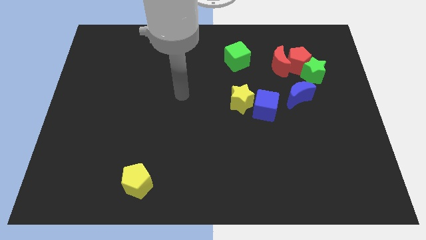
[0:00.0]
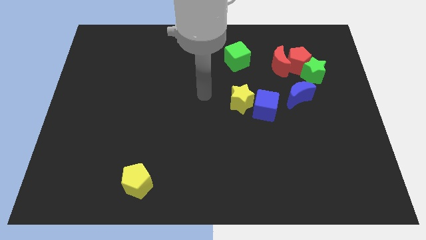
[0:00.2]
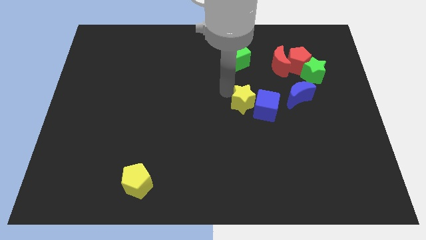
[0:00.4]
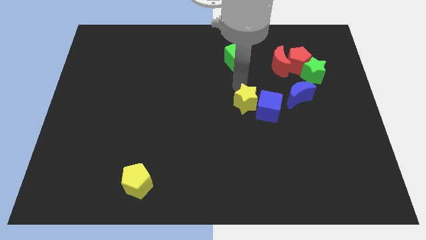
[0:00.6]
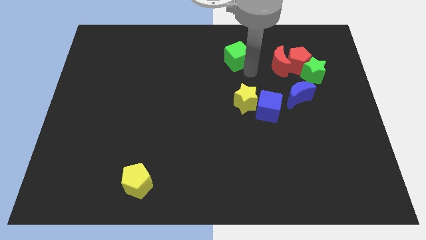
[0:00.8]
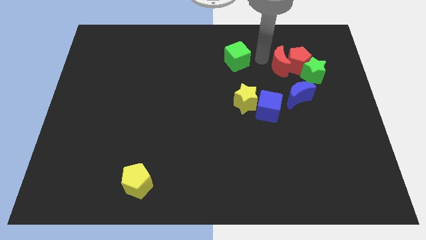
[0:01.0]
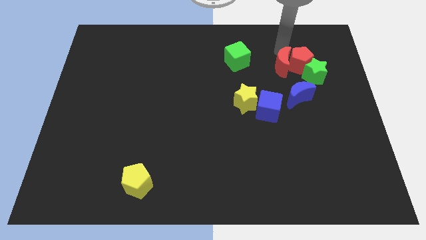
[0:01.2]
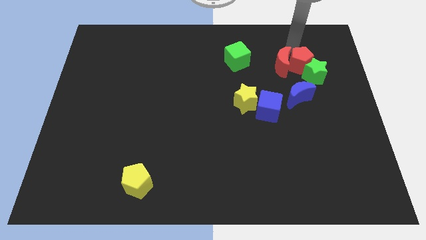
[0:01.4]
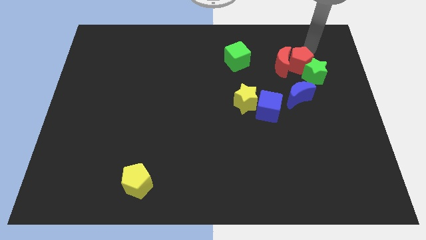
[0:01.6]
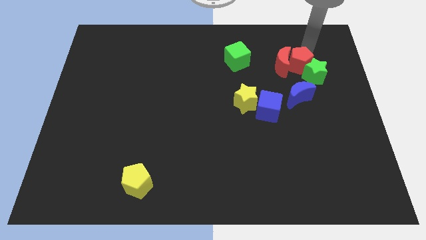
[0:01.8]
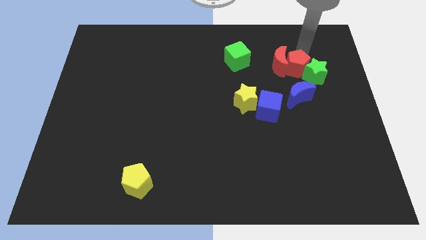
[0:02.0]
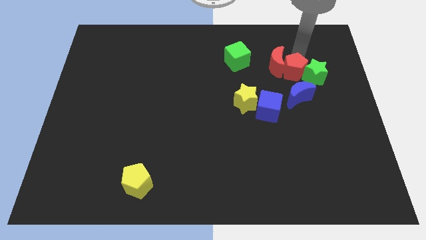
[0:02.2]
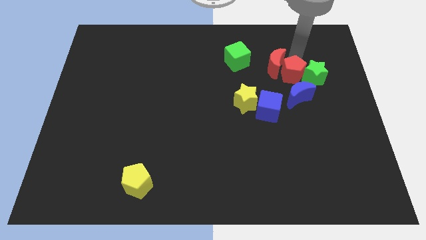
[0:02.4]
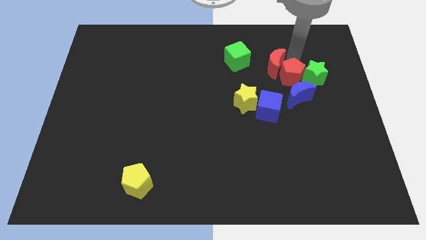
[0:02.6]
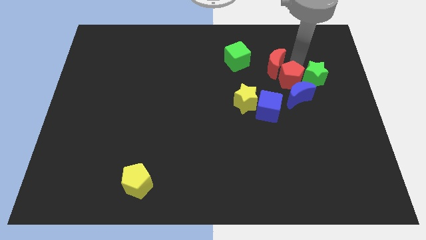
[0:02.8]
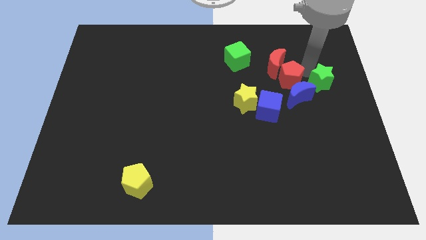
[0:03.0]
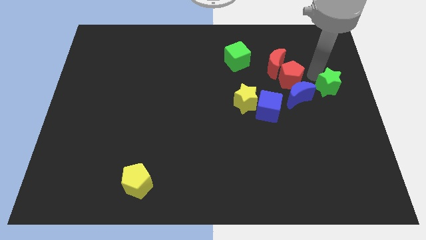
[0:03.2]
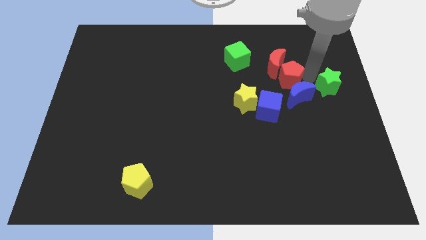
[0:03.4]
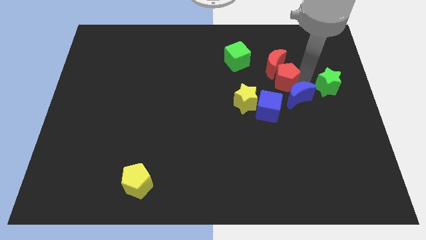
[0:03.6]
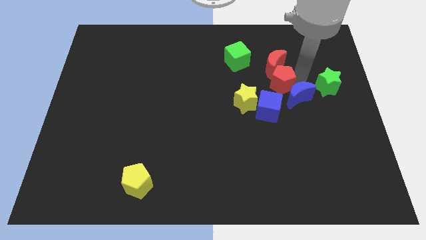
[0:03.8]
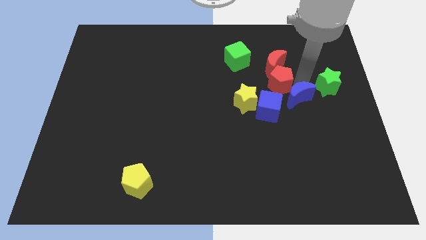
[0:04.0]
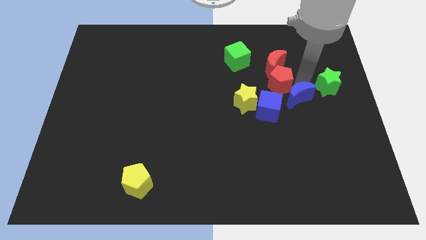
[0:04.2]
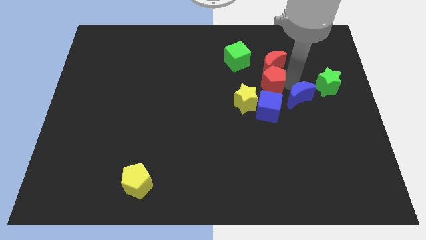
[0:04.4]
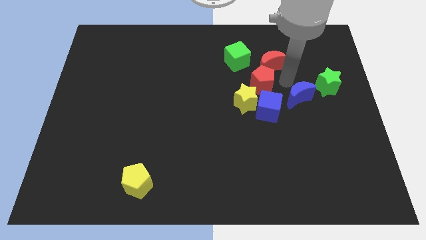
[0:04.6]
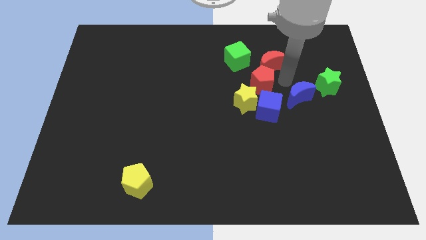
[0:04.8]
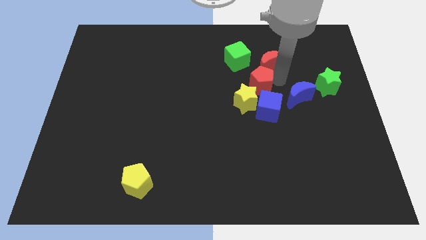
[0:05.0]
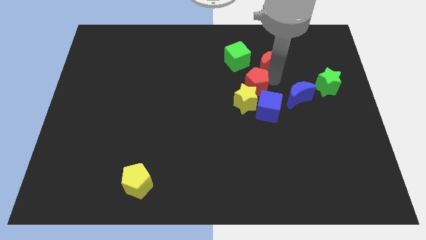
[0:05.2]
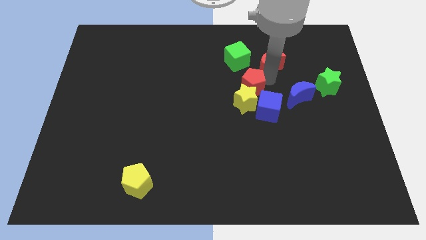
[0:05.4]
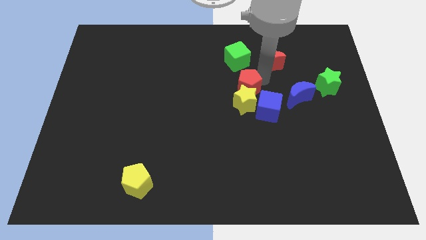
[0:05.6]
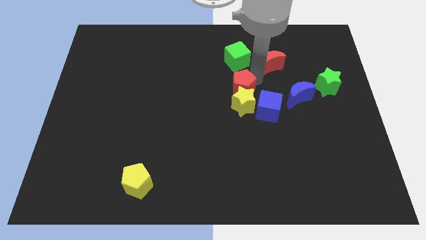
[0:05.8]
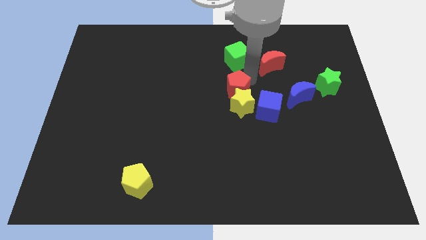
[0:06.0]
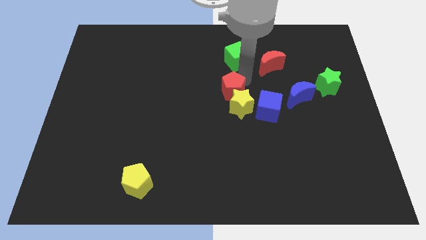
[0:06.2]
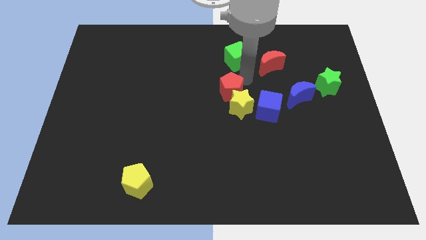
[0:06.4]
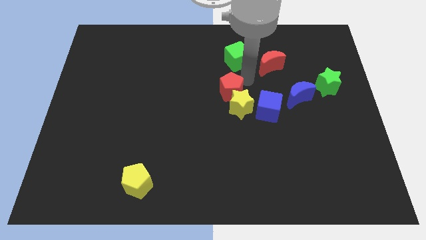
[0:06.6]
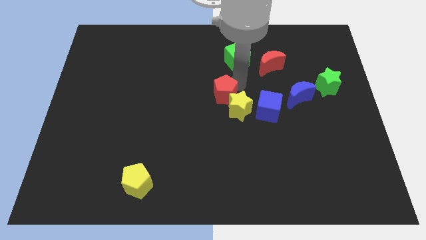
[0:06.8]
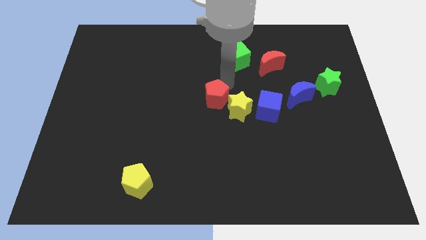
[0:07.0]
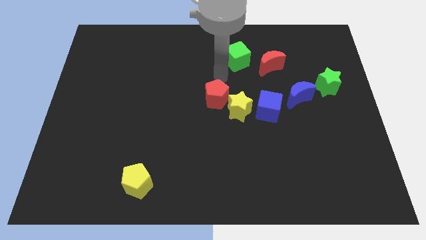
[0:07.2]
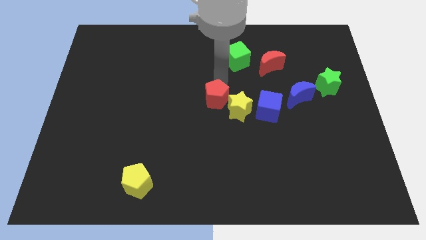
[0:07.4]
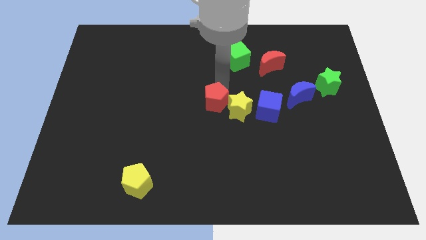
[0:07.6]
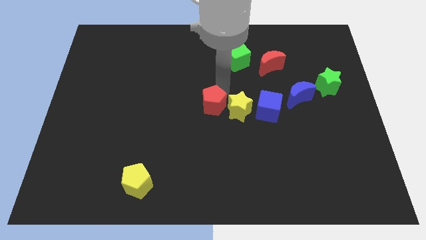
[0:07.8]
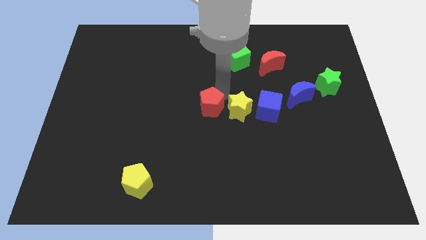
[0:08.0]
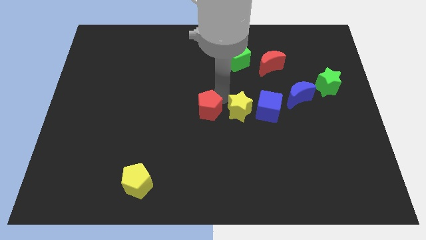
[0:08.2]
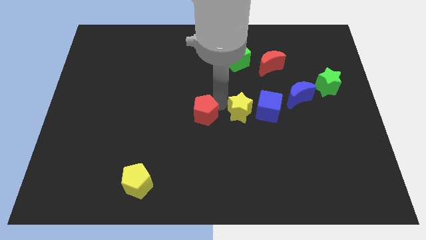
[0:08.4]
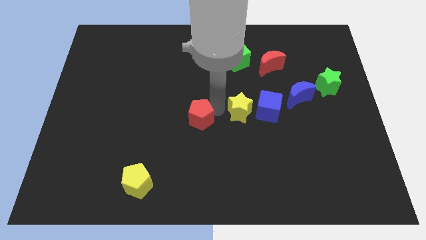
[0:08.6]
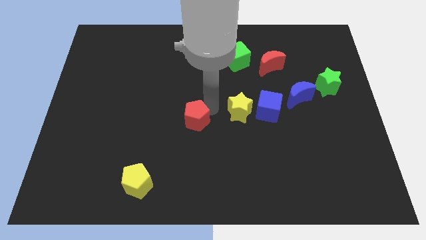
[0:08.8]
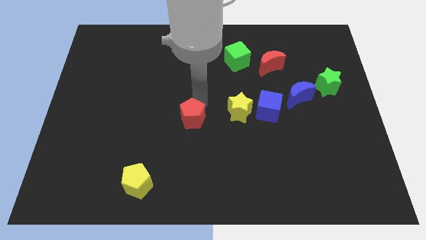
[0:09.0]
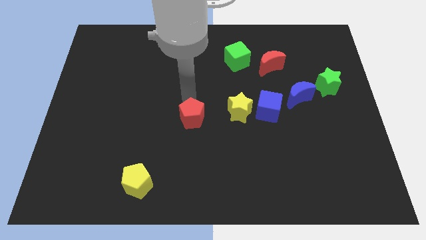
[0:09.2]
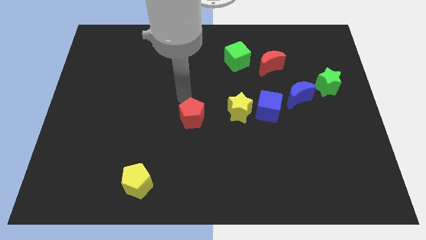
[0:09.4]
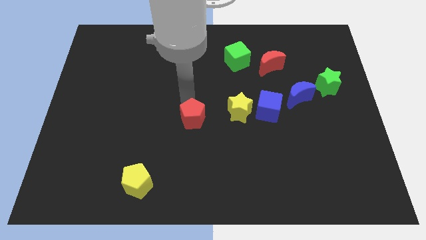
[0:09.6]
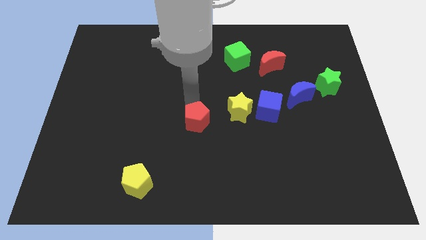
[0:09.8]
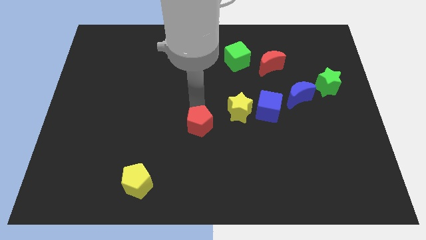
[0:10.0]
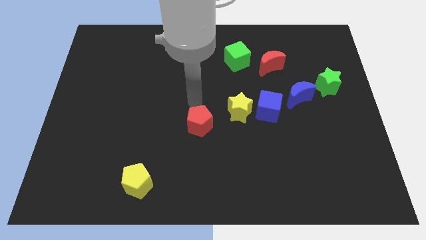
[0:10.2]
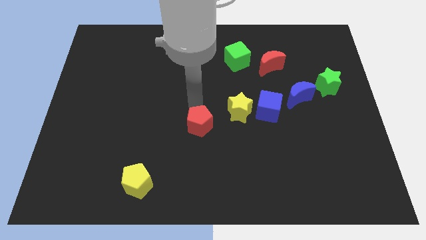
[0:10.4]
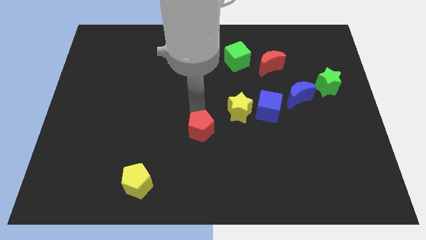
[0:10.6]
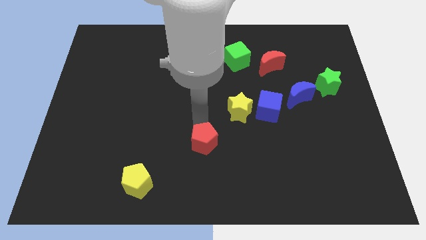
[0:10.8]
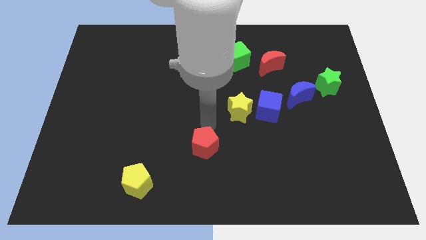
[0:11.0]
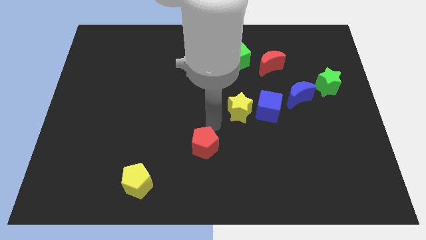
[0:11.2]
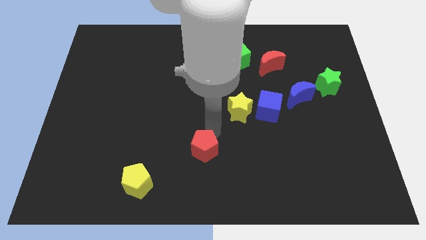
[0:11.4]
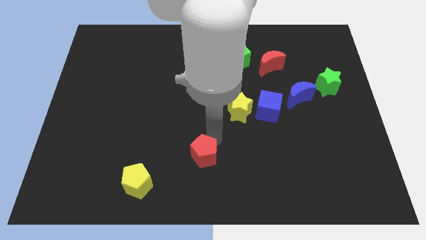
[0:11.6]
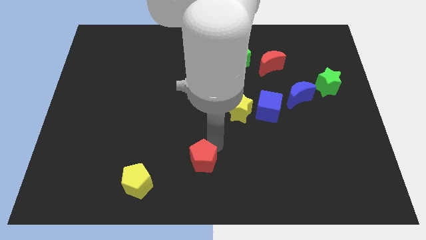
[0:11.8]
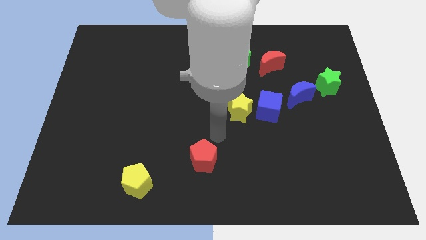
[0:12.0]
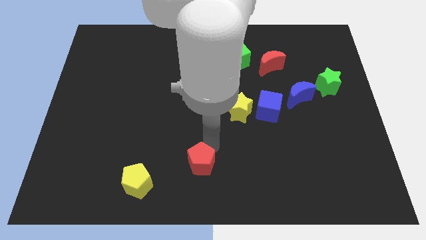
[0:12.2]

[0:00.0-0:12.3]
slide the red pentagon to the right of the yellow pentagon

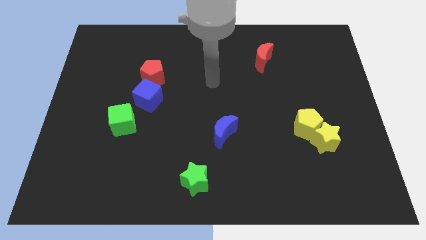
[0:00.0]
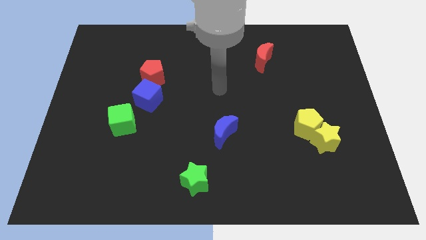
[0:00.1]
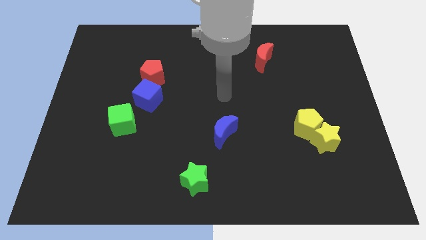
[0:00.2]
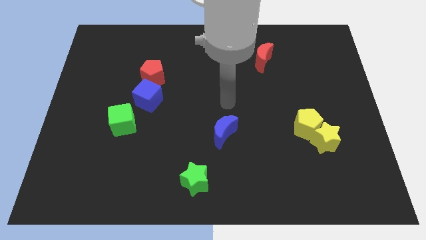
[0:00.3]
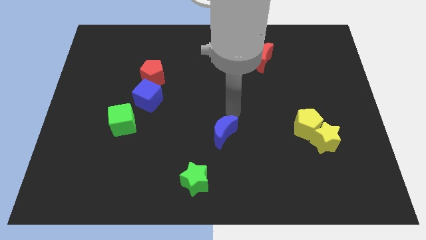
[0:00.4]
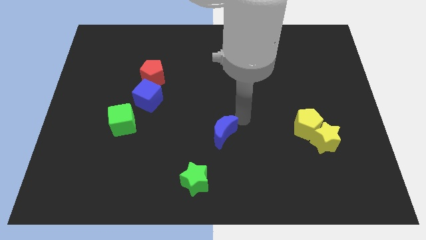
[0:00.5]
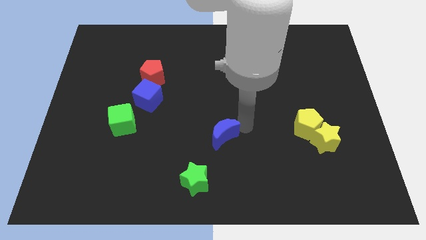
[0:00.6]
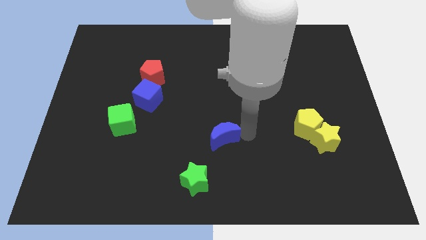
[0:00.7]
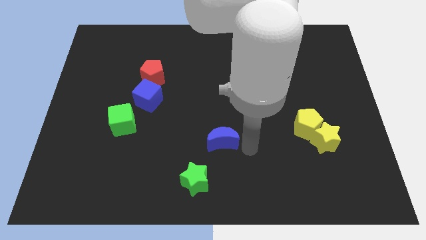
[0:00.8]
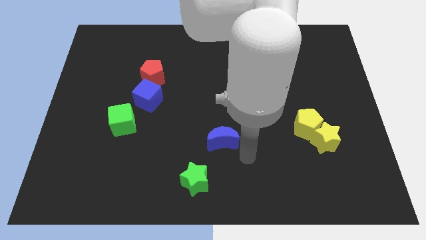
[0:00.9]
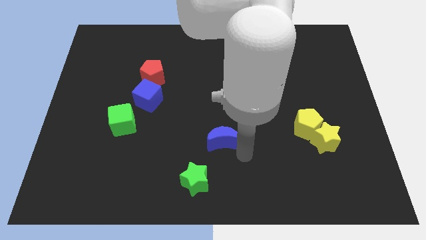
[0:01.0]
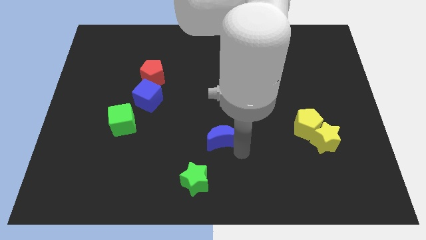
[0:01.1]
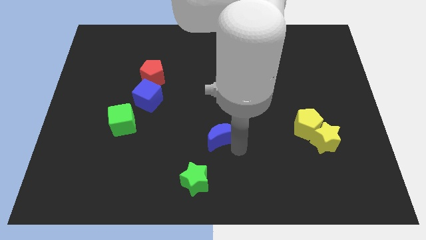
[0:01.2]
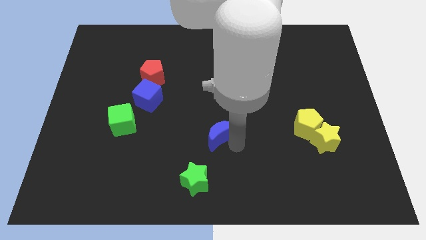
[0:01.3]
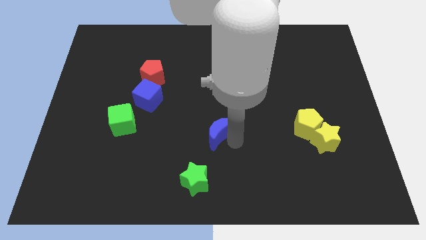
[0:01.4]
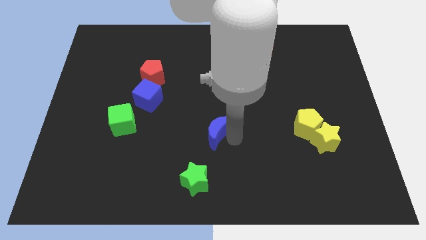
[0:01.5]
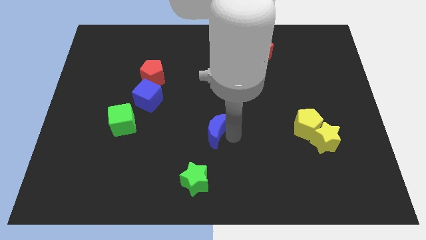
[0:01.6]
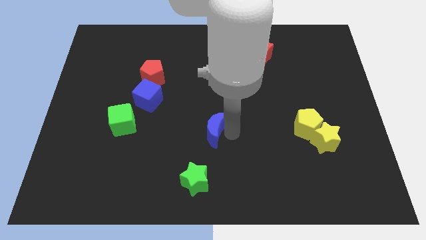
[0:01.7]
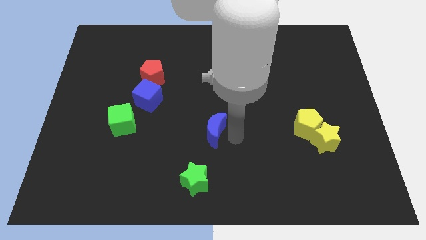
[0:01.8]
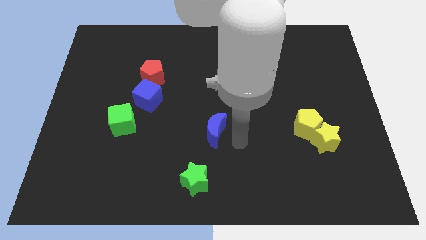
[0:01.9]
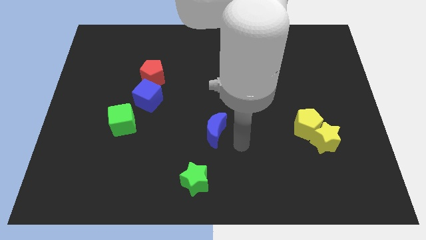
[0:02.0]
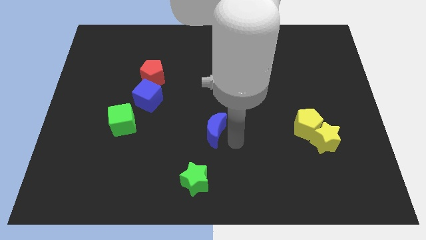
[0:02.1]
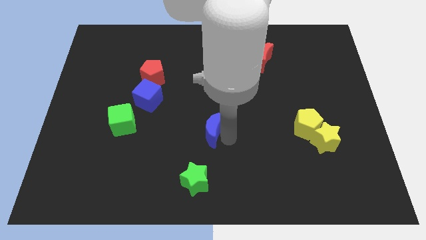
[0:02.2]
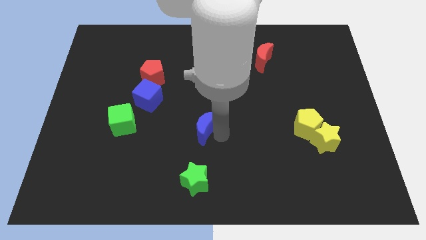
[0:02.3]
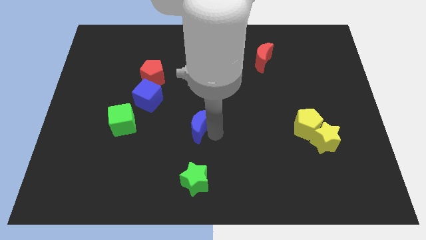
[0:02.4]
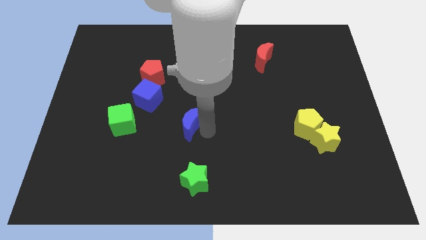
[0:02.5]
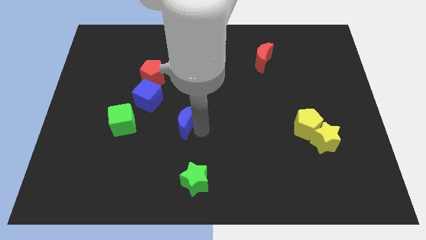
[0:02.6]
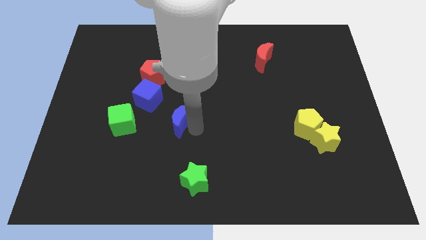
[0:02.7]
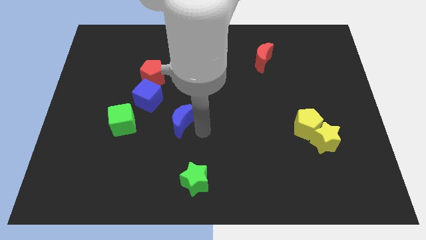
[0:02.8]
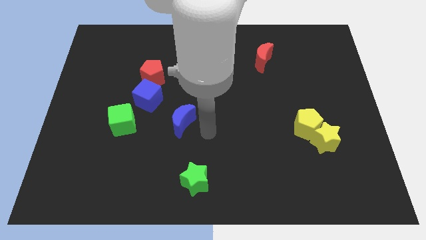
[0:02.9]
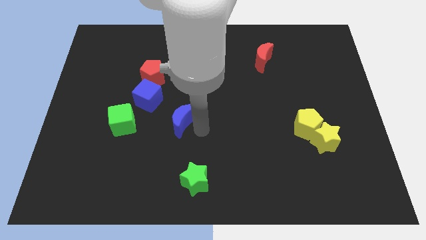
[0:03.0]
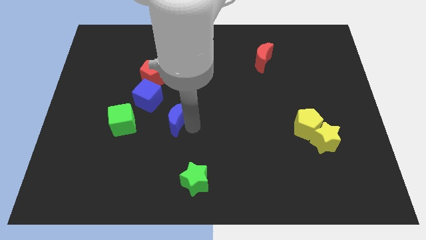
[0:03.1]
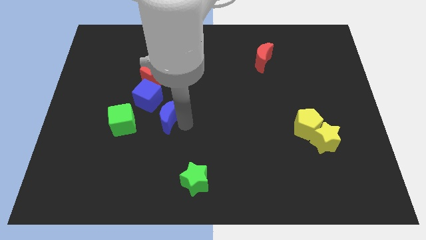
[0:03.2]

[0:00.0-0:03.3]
slide the blue moon to the bottom side of the red pentagon
